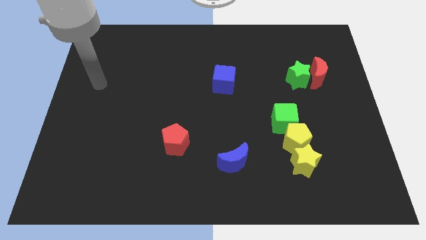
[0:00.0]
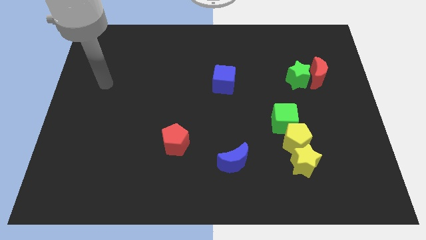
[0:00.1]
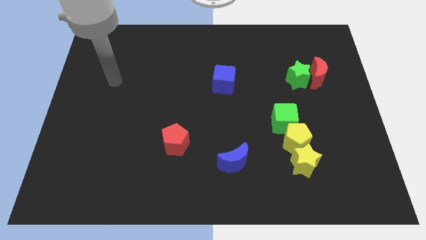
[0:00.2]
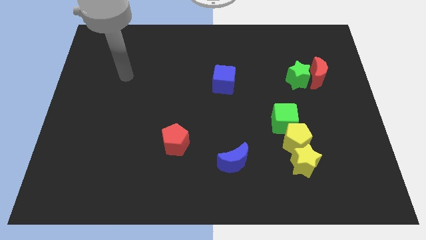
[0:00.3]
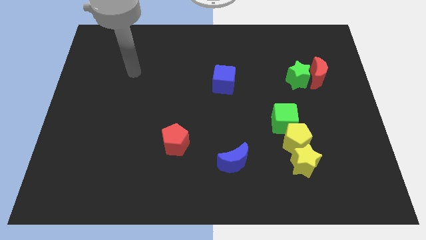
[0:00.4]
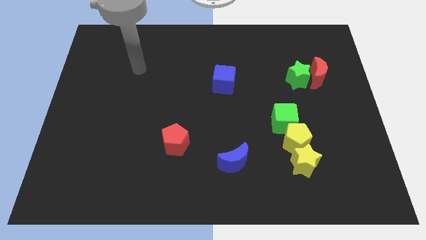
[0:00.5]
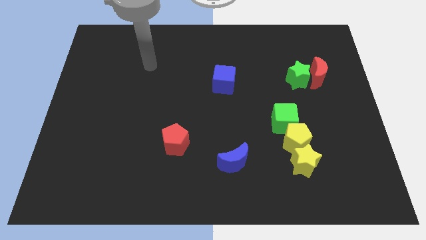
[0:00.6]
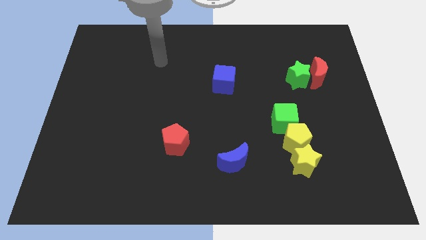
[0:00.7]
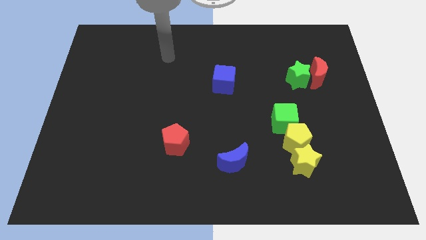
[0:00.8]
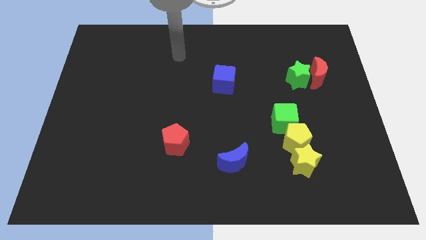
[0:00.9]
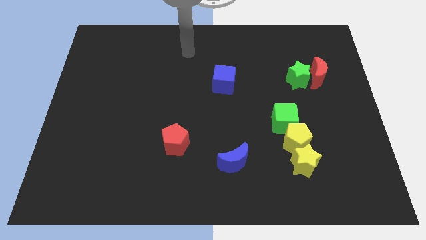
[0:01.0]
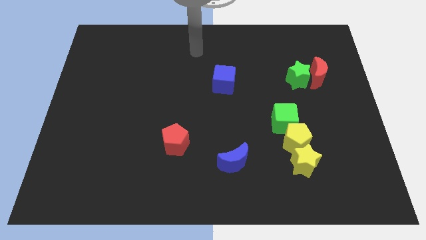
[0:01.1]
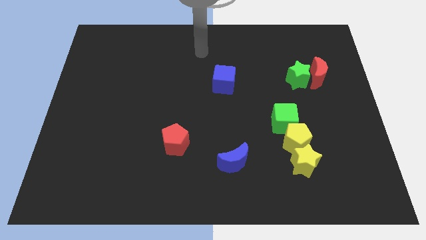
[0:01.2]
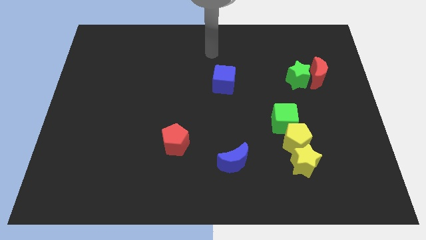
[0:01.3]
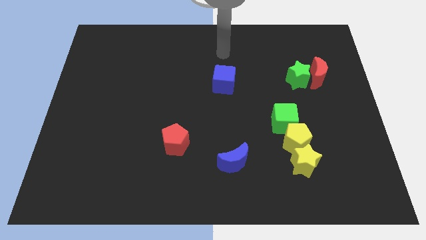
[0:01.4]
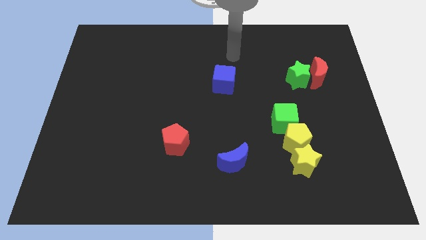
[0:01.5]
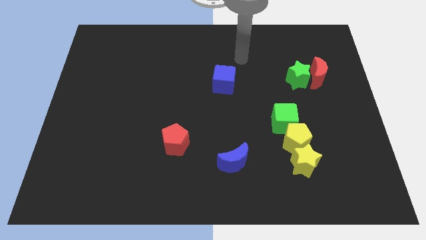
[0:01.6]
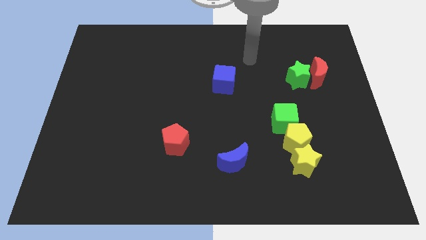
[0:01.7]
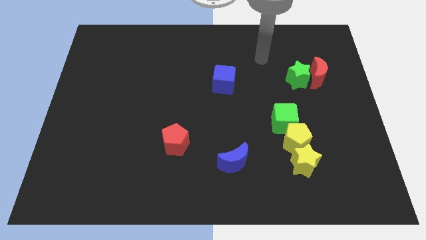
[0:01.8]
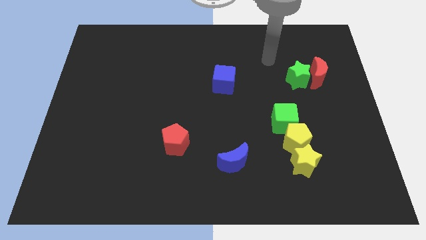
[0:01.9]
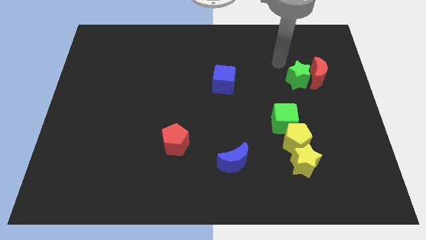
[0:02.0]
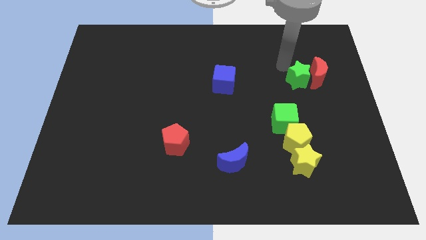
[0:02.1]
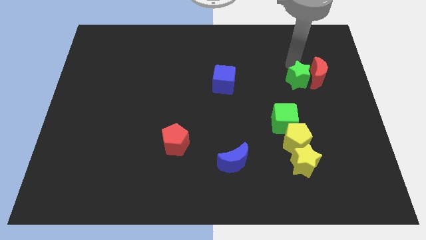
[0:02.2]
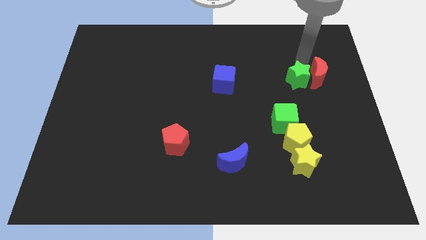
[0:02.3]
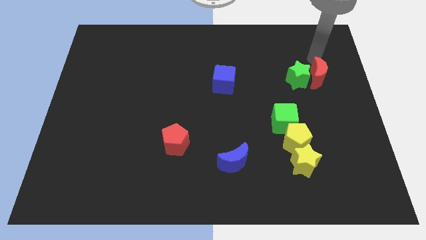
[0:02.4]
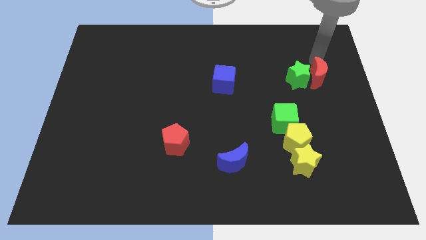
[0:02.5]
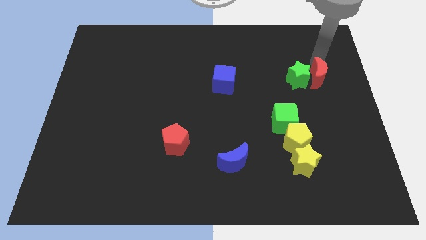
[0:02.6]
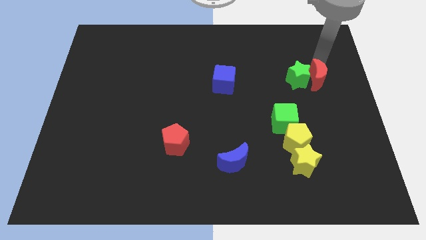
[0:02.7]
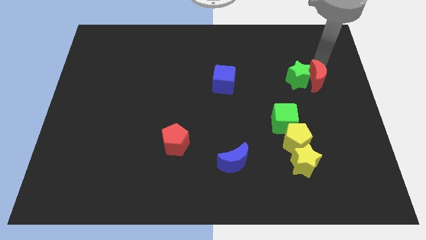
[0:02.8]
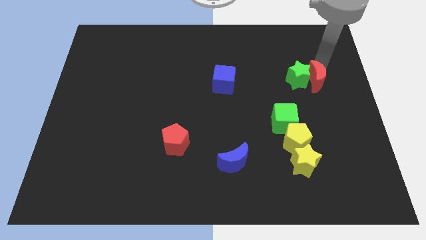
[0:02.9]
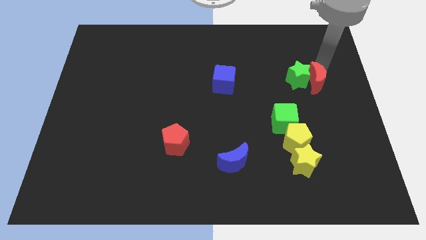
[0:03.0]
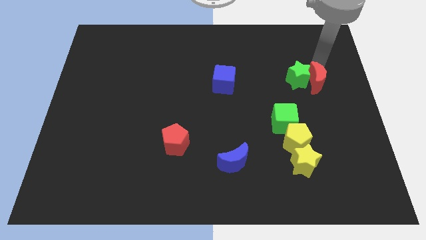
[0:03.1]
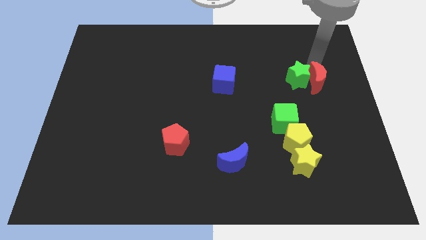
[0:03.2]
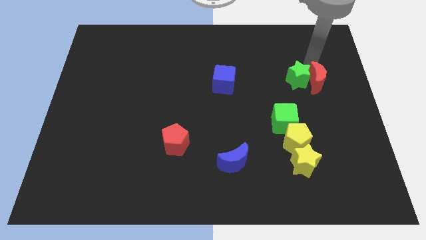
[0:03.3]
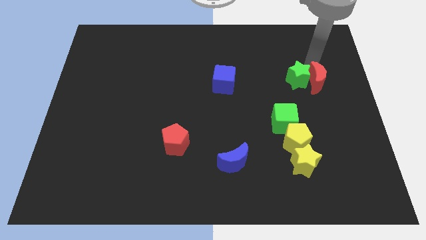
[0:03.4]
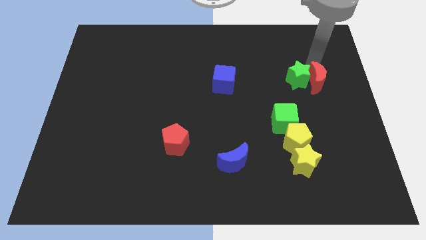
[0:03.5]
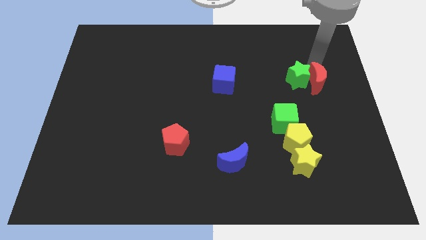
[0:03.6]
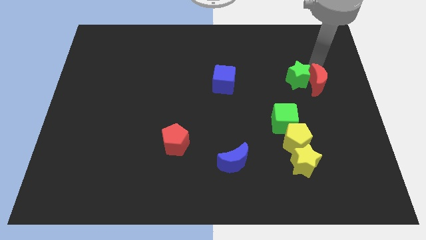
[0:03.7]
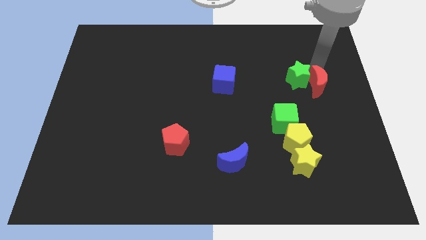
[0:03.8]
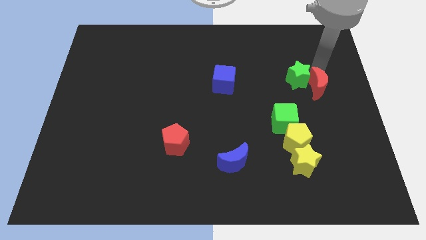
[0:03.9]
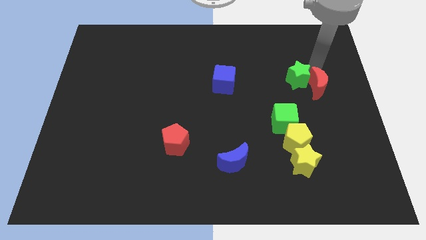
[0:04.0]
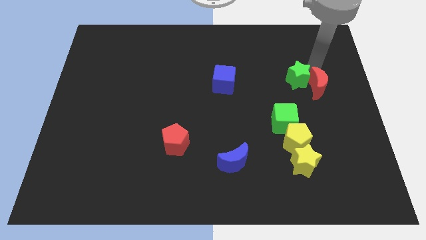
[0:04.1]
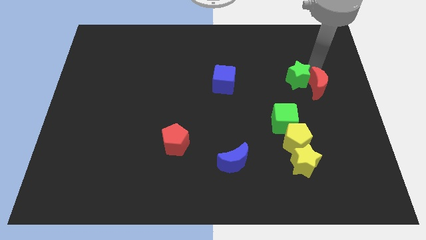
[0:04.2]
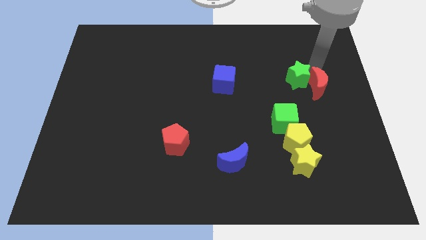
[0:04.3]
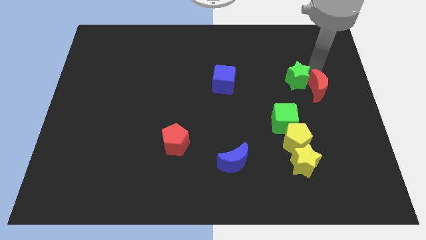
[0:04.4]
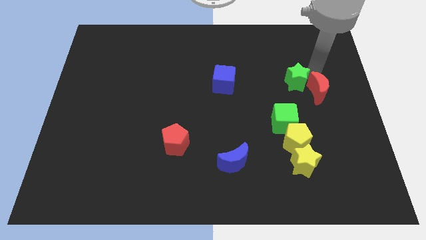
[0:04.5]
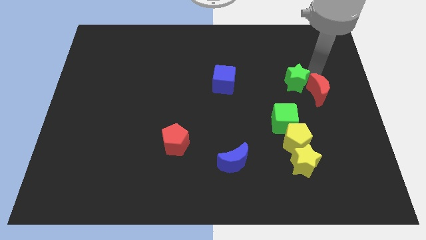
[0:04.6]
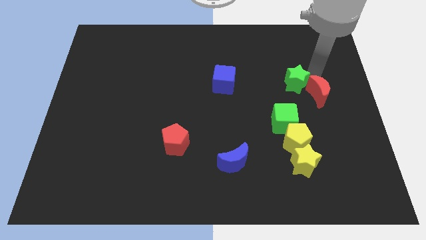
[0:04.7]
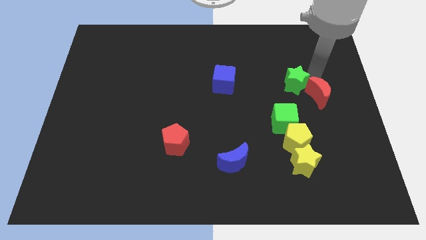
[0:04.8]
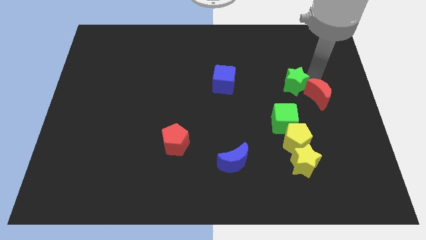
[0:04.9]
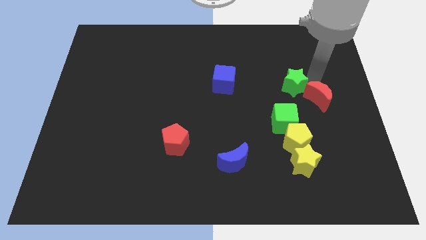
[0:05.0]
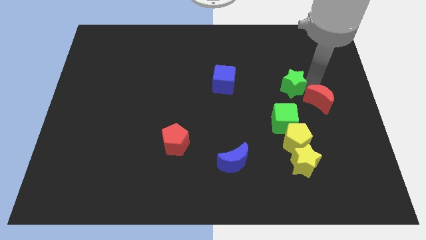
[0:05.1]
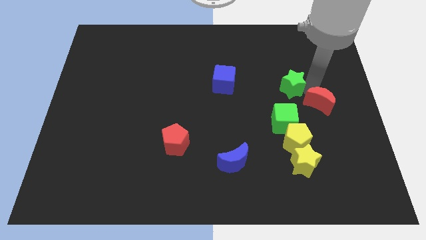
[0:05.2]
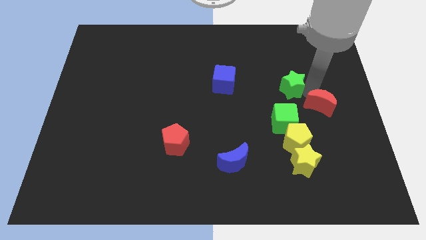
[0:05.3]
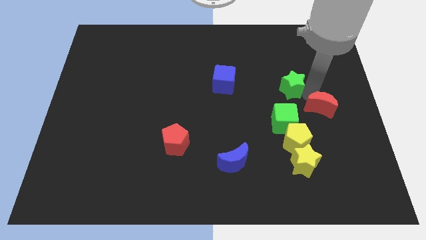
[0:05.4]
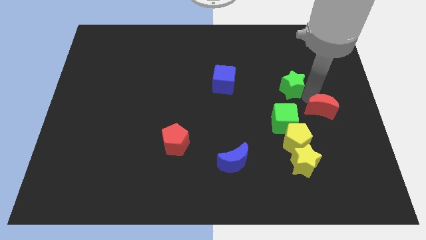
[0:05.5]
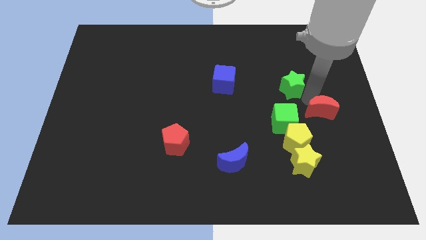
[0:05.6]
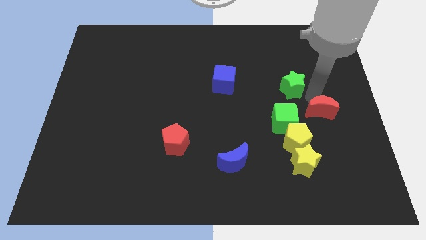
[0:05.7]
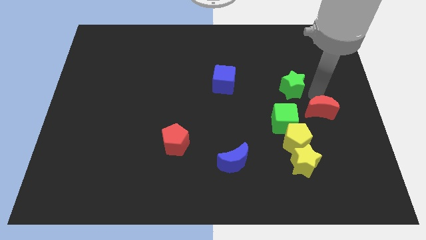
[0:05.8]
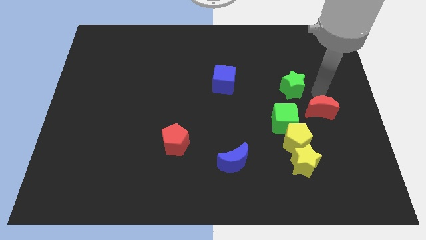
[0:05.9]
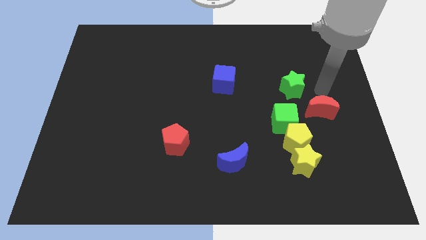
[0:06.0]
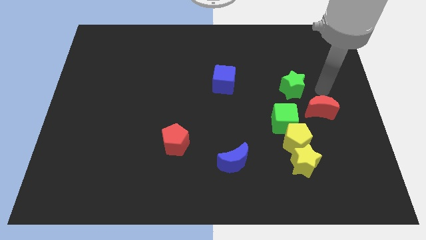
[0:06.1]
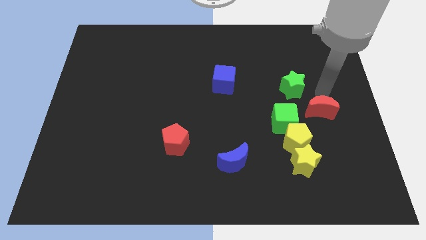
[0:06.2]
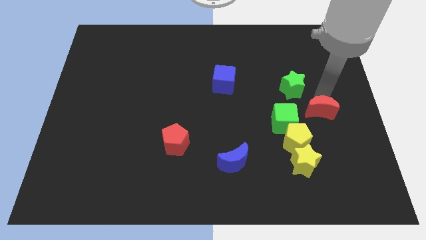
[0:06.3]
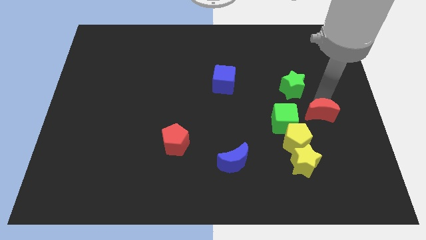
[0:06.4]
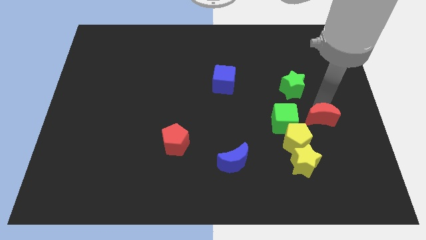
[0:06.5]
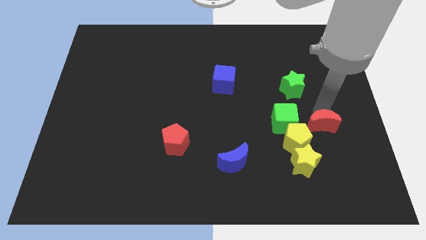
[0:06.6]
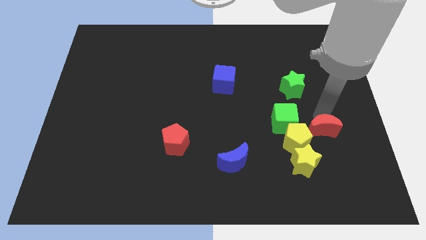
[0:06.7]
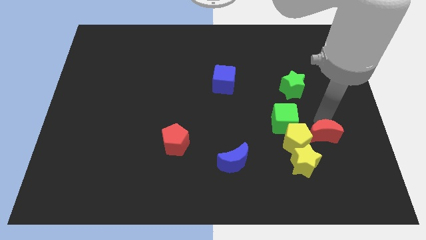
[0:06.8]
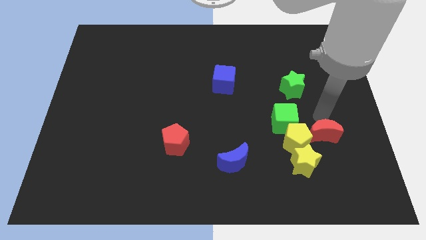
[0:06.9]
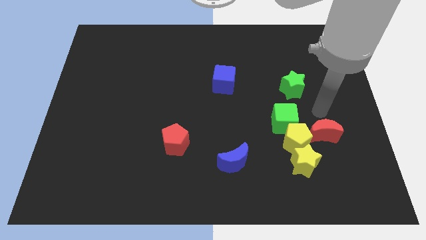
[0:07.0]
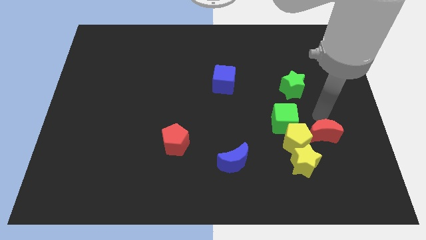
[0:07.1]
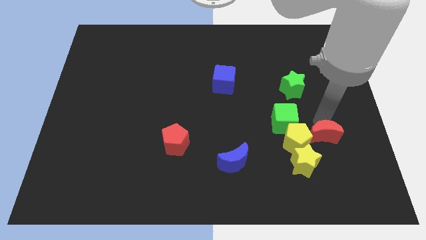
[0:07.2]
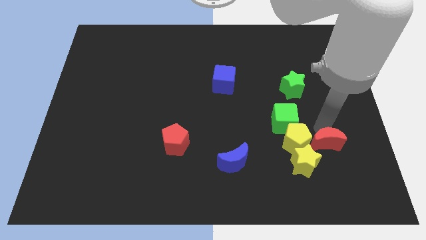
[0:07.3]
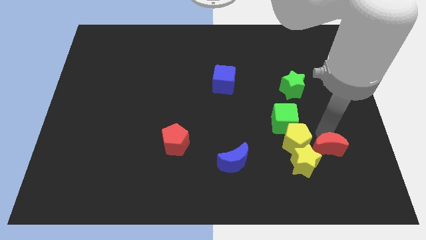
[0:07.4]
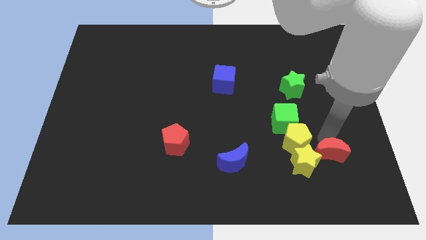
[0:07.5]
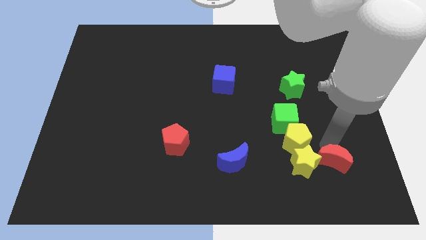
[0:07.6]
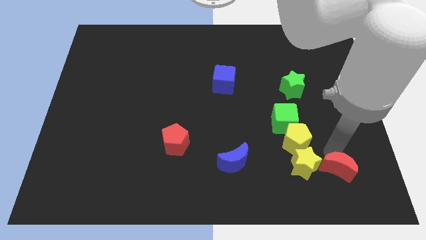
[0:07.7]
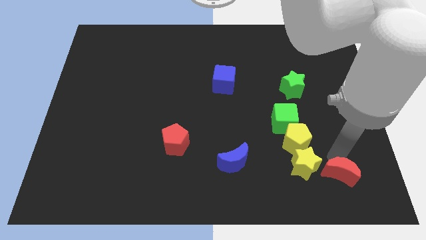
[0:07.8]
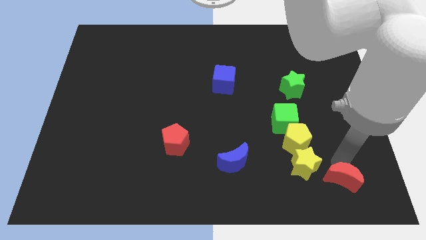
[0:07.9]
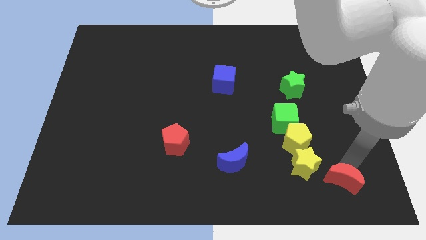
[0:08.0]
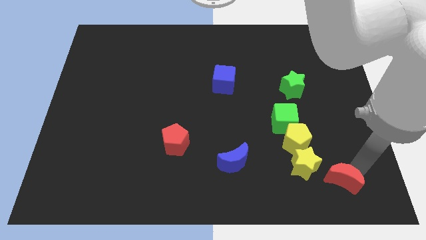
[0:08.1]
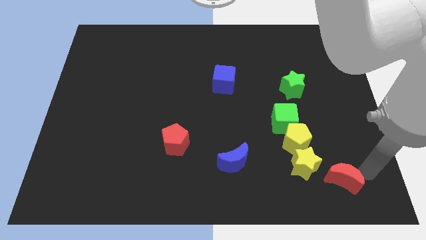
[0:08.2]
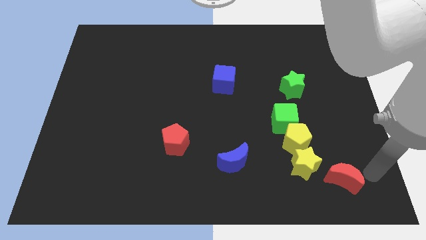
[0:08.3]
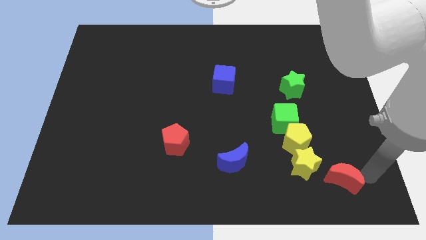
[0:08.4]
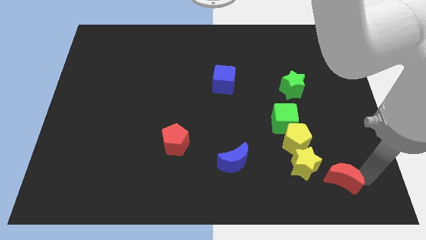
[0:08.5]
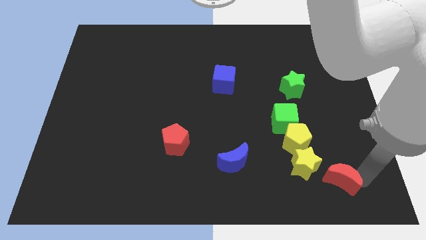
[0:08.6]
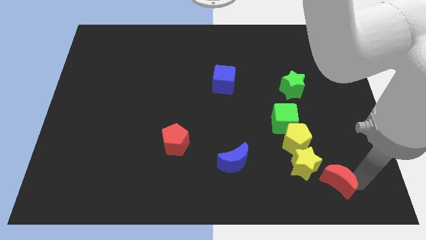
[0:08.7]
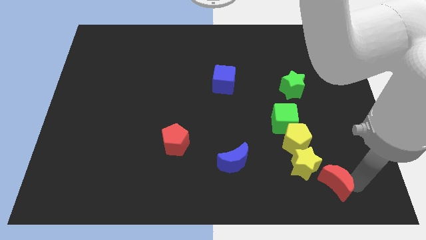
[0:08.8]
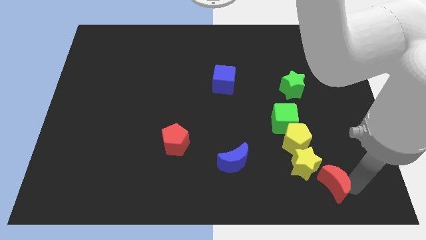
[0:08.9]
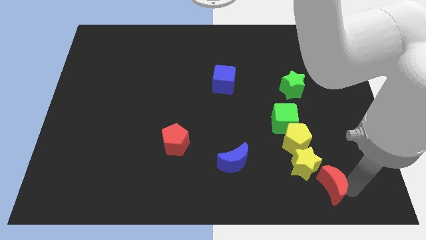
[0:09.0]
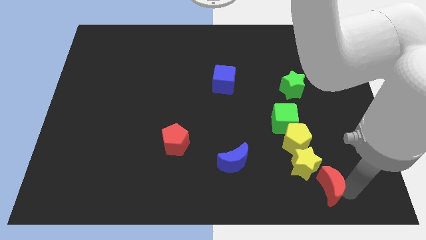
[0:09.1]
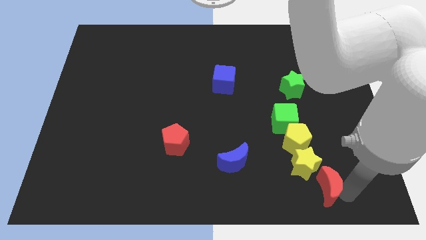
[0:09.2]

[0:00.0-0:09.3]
move the red moon to the bottom of the yellow pentagon
